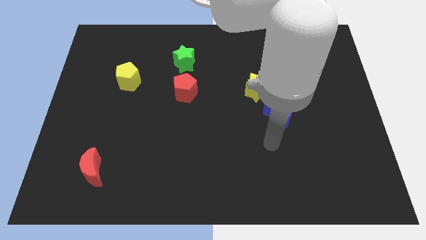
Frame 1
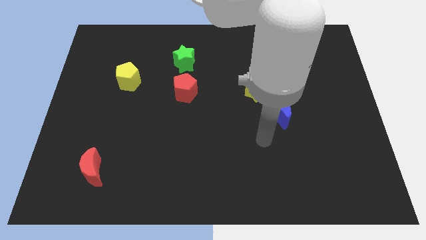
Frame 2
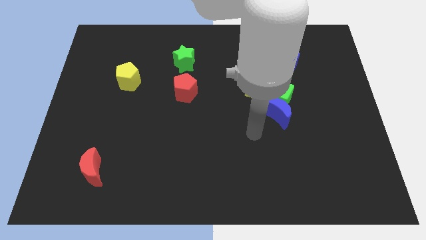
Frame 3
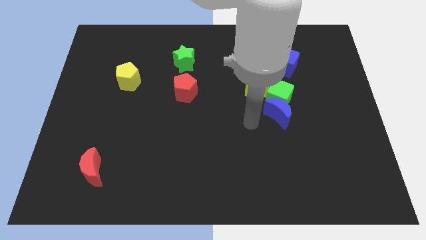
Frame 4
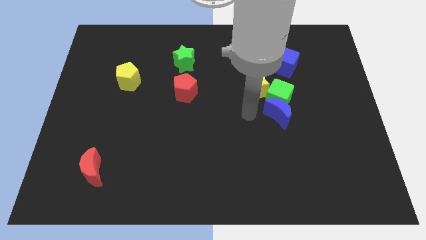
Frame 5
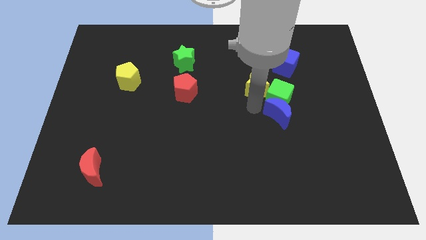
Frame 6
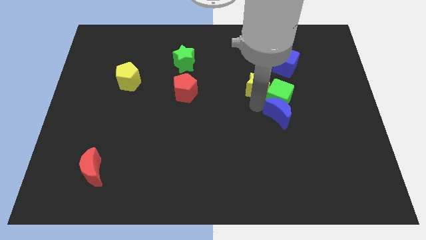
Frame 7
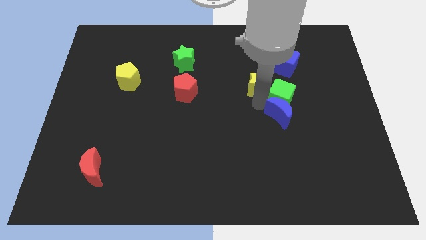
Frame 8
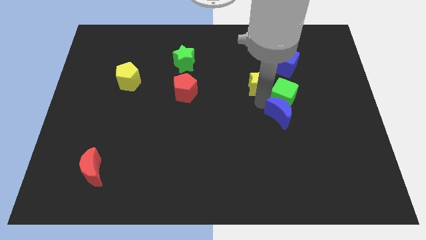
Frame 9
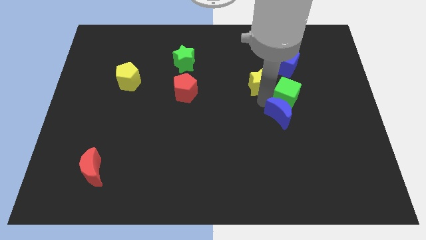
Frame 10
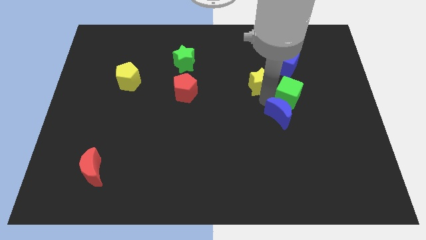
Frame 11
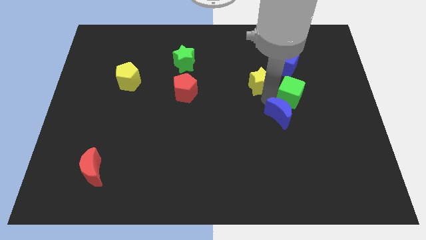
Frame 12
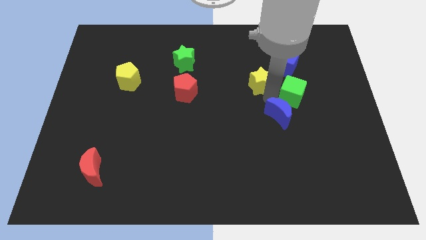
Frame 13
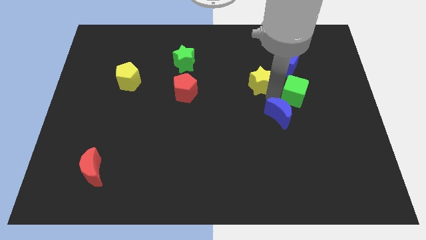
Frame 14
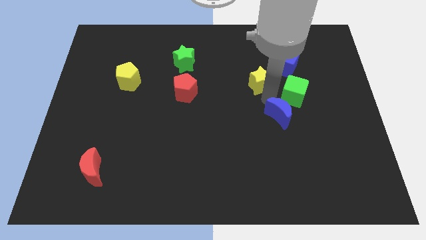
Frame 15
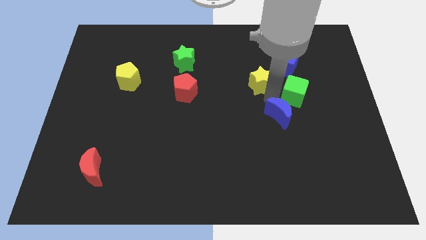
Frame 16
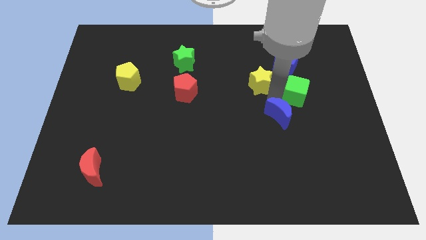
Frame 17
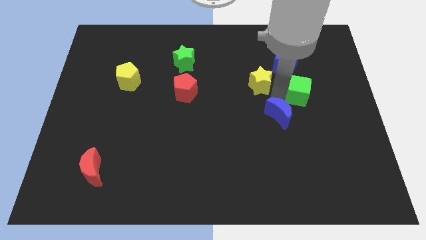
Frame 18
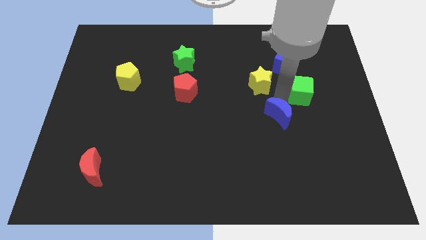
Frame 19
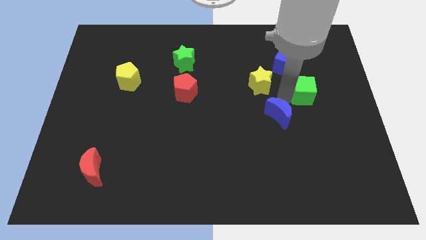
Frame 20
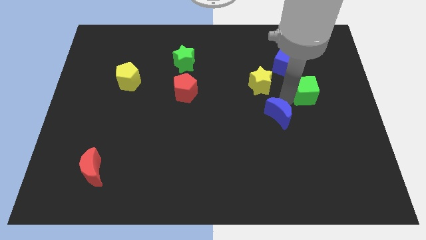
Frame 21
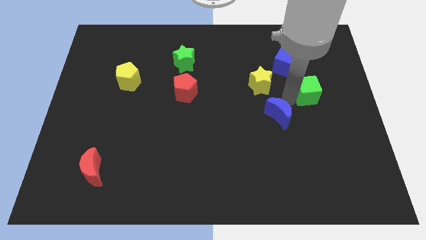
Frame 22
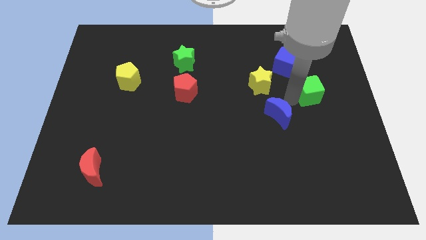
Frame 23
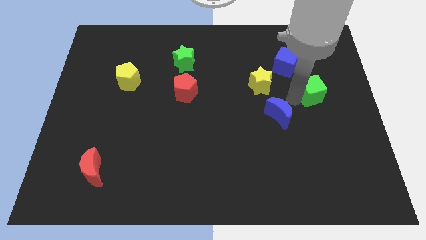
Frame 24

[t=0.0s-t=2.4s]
move the green cube away from the blue moon and yellow star

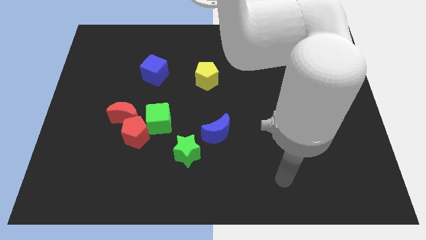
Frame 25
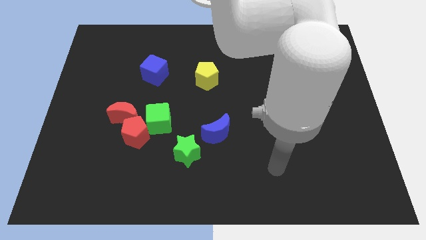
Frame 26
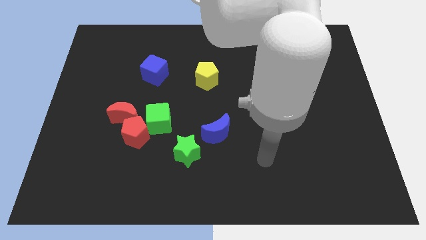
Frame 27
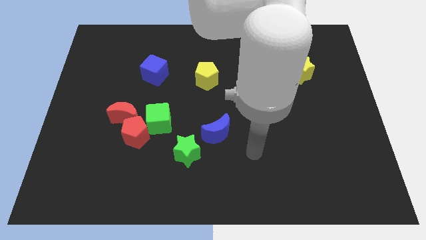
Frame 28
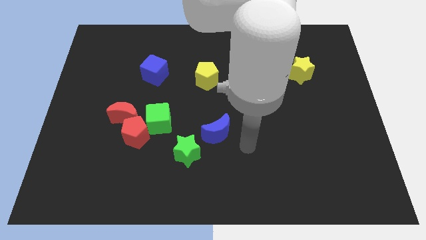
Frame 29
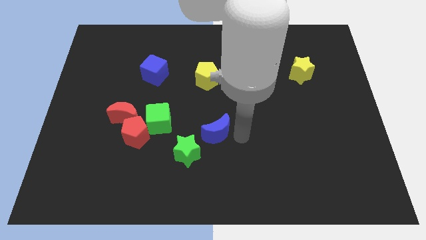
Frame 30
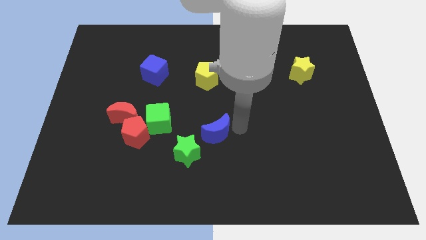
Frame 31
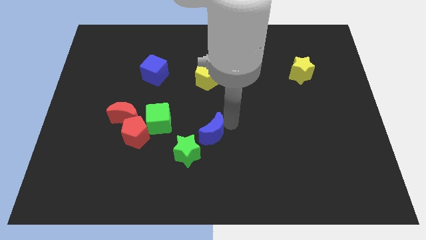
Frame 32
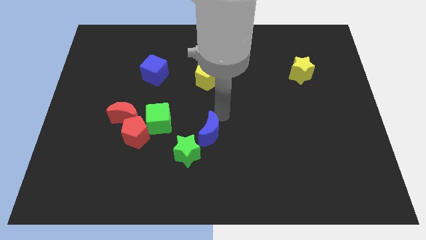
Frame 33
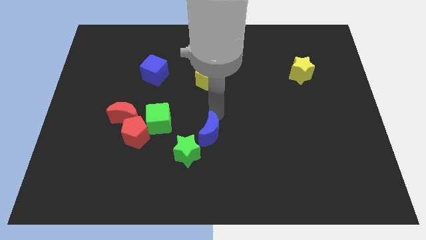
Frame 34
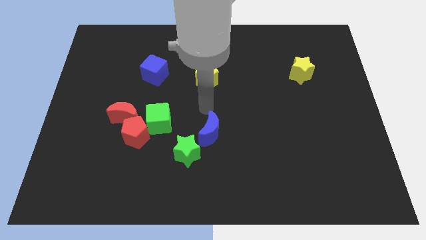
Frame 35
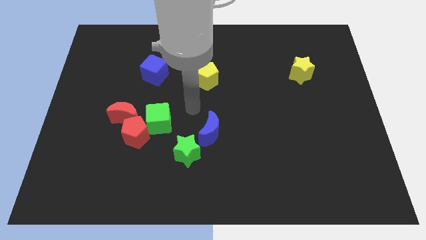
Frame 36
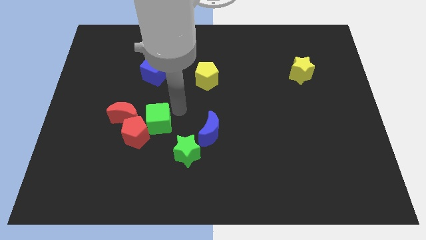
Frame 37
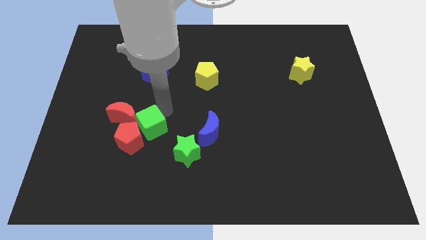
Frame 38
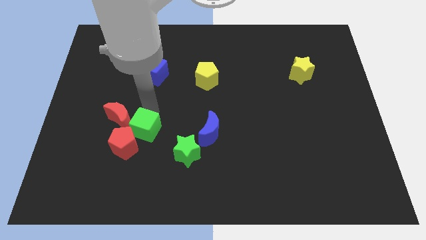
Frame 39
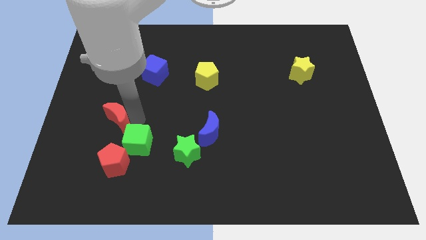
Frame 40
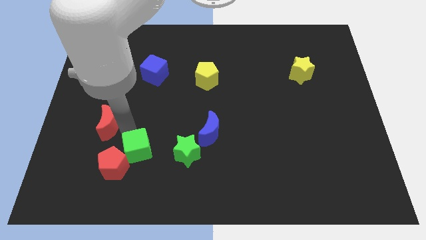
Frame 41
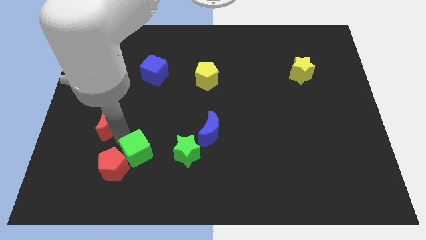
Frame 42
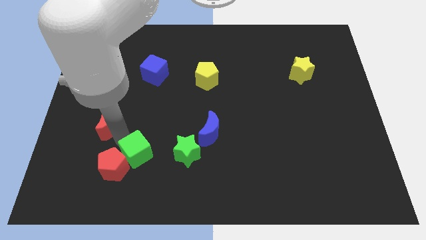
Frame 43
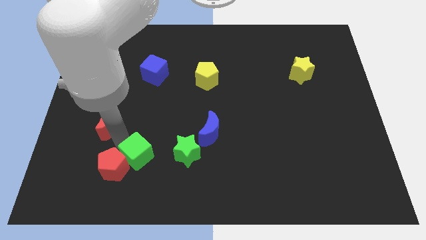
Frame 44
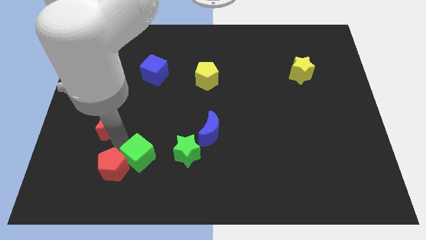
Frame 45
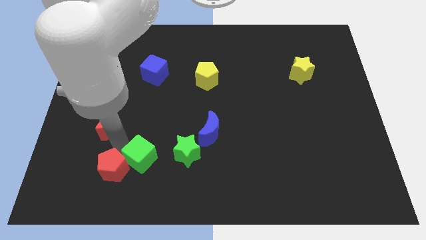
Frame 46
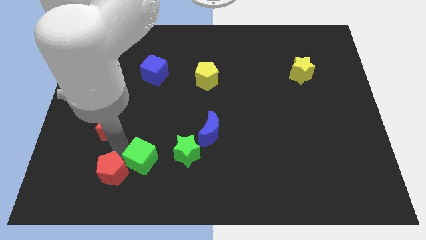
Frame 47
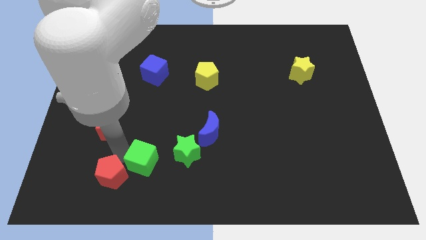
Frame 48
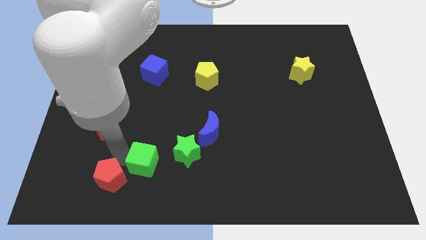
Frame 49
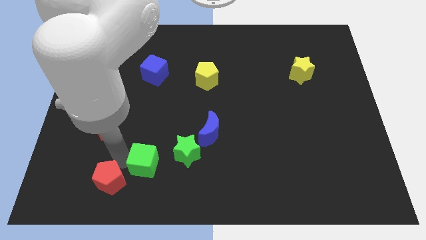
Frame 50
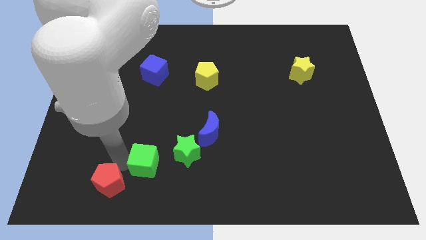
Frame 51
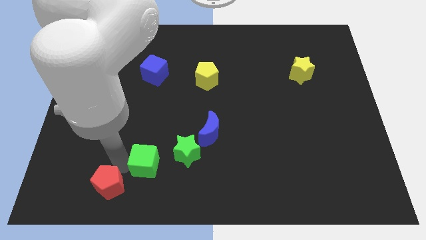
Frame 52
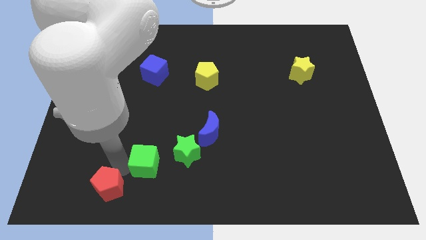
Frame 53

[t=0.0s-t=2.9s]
pull the red pentagon apart from the red moon and green cube

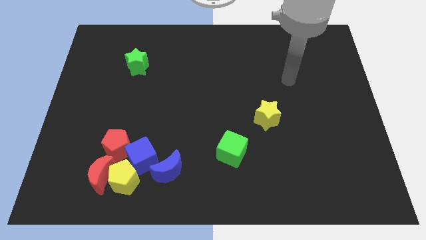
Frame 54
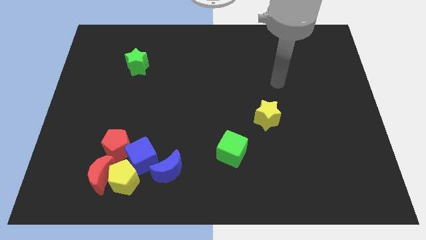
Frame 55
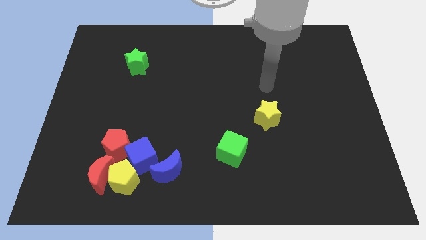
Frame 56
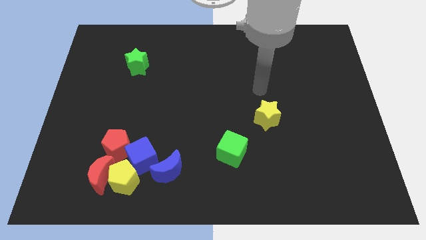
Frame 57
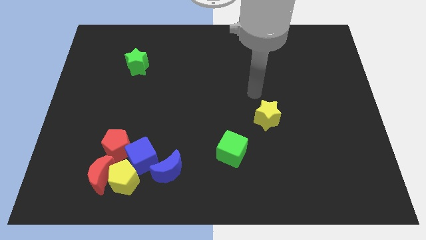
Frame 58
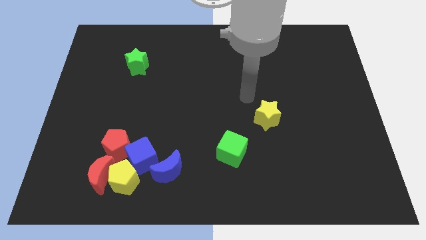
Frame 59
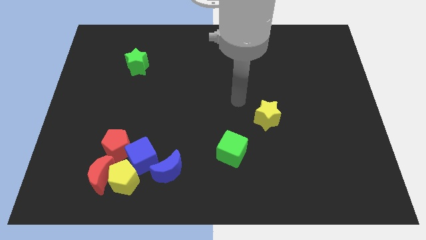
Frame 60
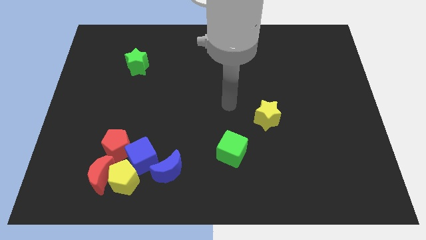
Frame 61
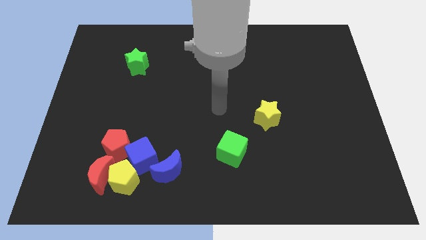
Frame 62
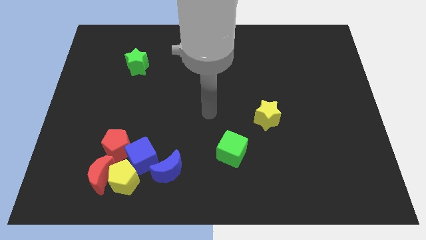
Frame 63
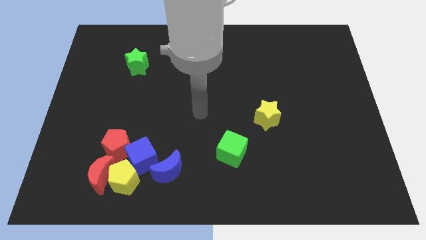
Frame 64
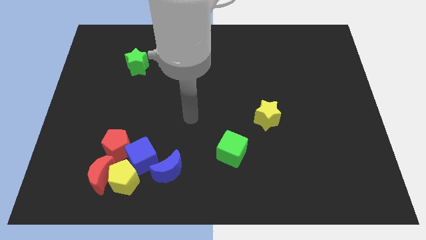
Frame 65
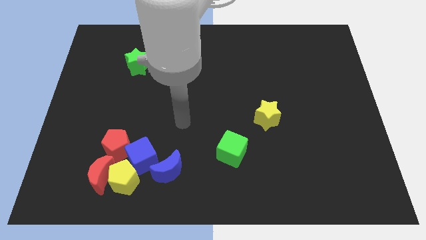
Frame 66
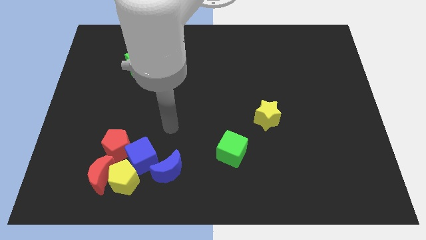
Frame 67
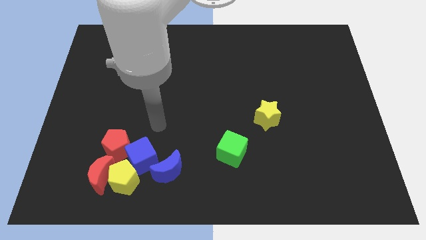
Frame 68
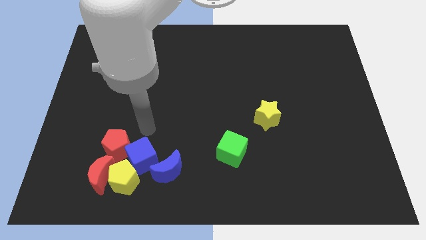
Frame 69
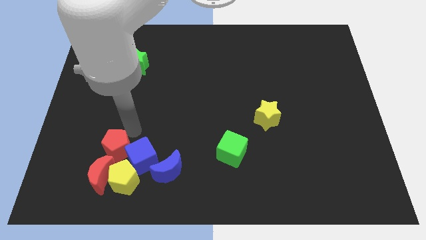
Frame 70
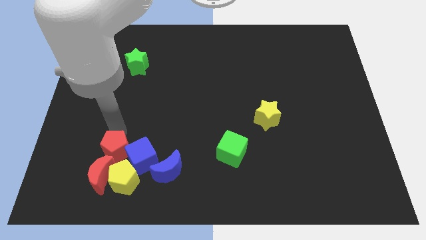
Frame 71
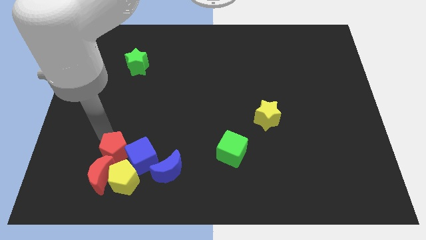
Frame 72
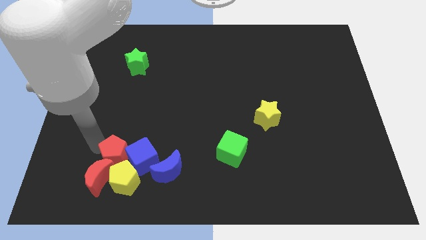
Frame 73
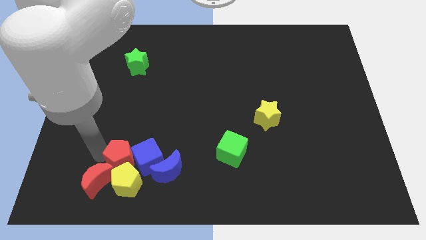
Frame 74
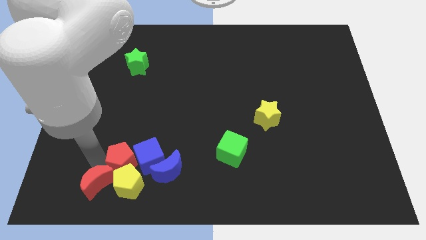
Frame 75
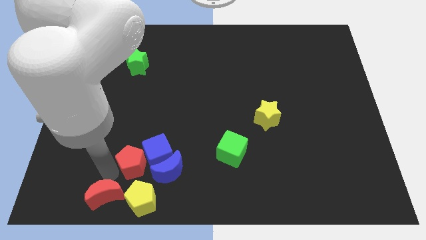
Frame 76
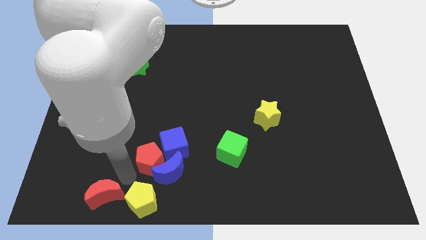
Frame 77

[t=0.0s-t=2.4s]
pull the blue cube apart from the group

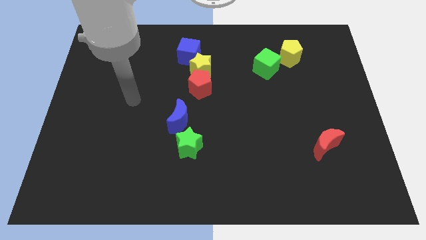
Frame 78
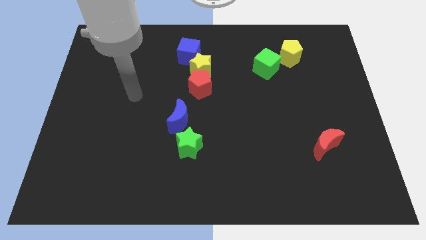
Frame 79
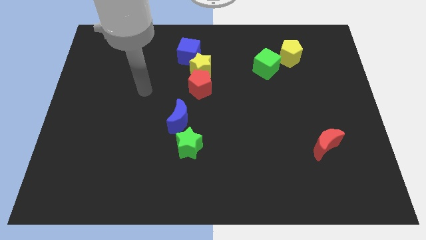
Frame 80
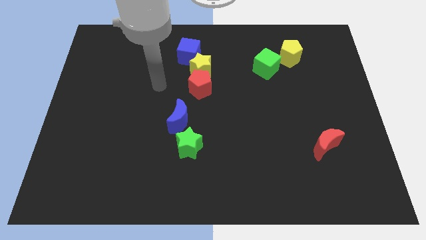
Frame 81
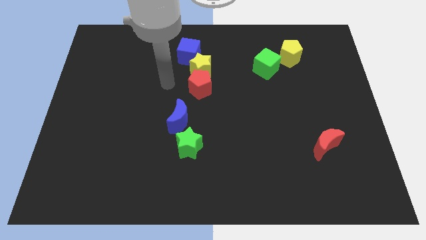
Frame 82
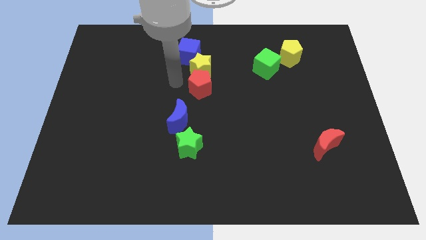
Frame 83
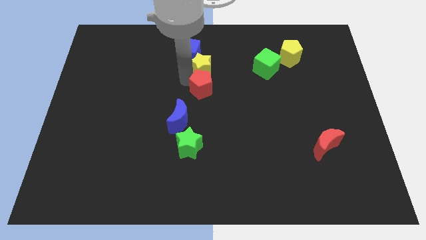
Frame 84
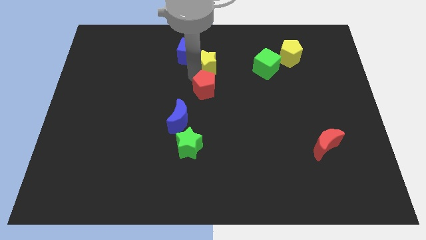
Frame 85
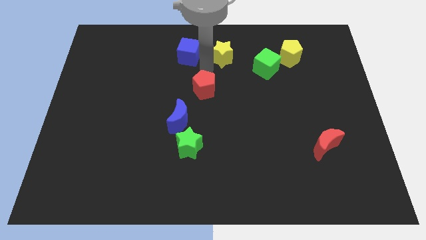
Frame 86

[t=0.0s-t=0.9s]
pull the red pentagon apart from the yellow star

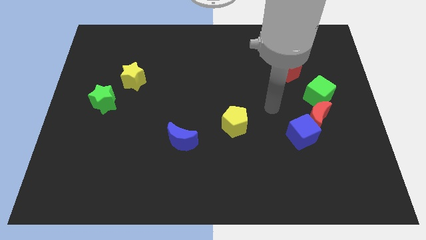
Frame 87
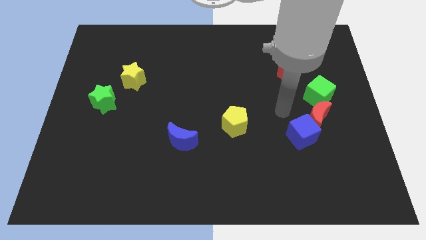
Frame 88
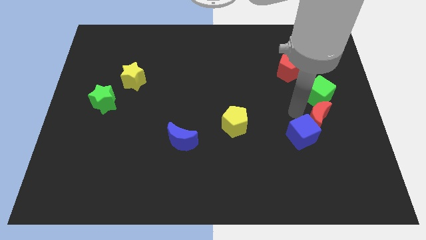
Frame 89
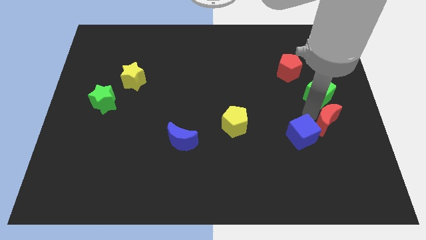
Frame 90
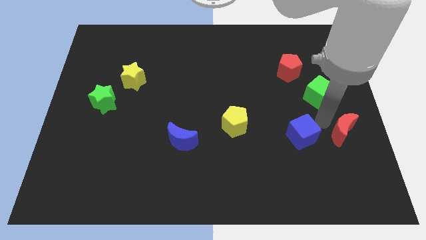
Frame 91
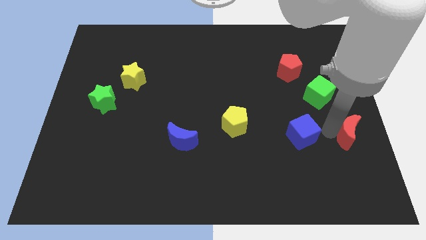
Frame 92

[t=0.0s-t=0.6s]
move the blue cube away from the red moon
